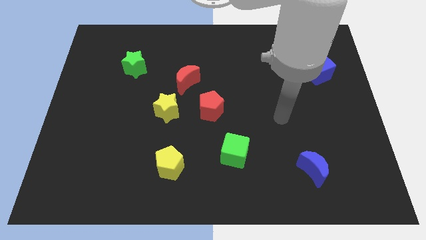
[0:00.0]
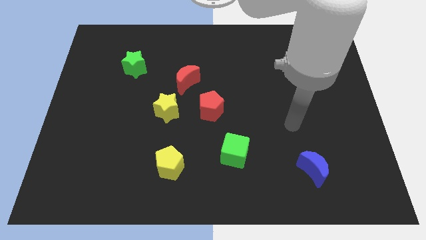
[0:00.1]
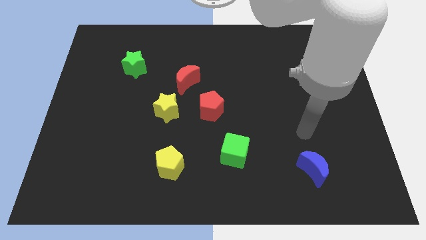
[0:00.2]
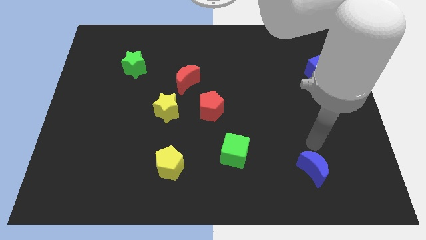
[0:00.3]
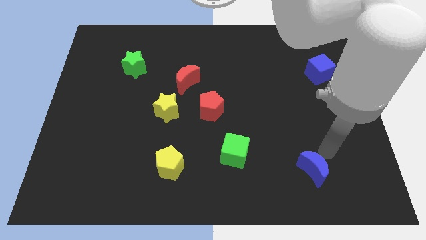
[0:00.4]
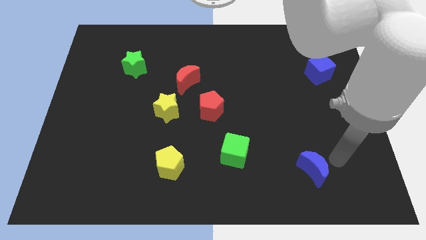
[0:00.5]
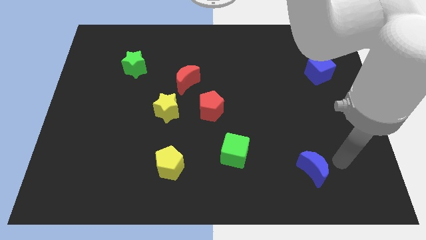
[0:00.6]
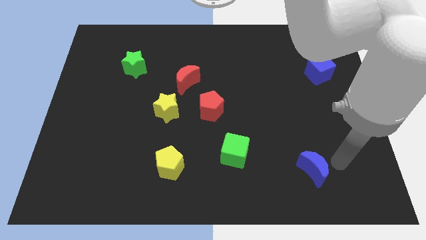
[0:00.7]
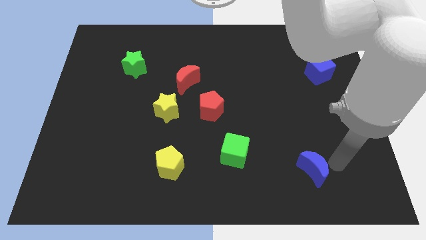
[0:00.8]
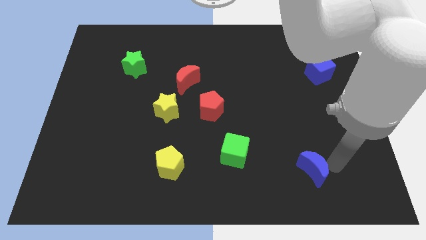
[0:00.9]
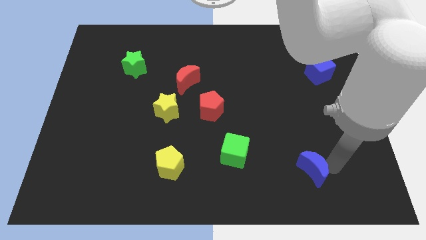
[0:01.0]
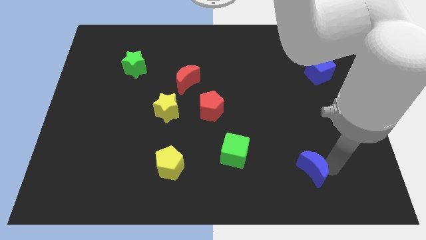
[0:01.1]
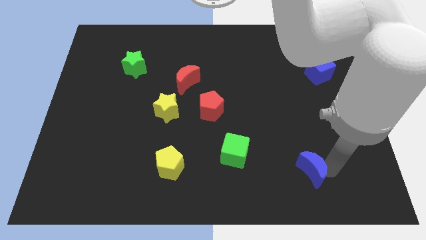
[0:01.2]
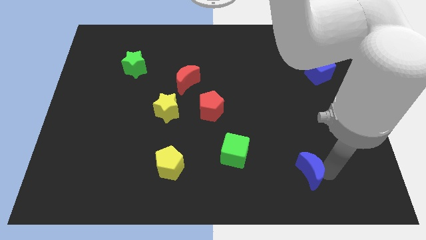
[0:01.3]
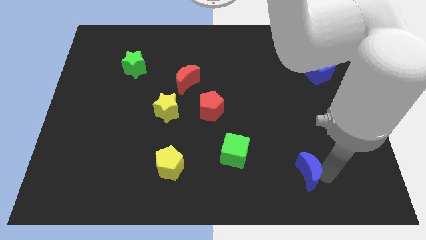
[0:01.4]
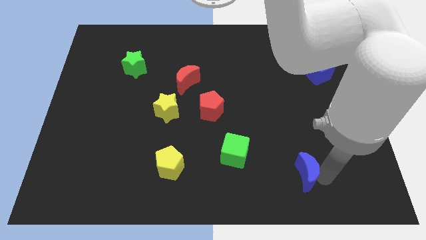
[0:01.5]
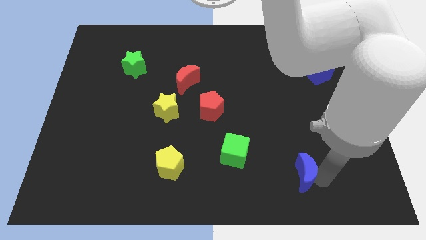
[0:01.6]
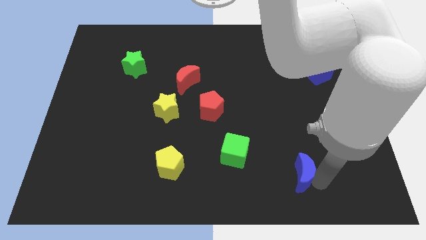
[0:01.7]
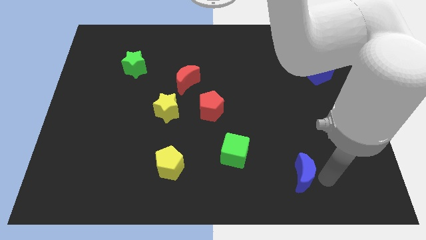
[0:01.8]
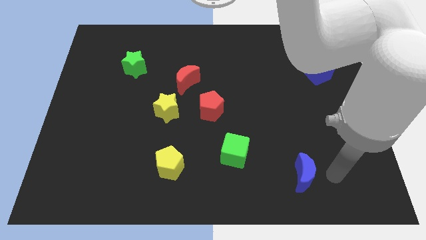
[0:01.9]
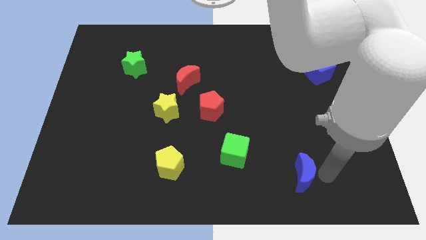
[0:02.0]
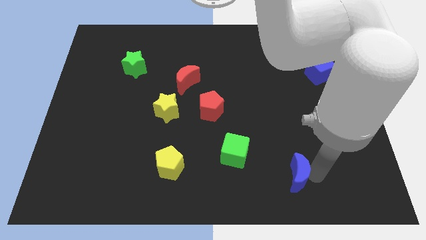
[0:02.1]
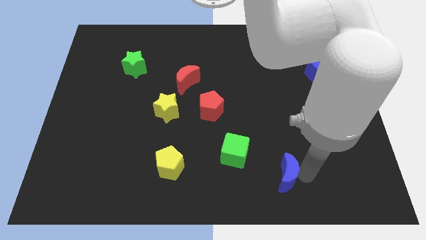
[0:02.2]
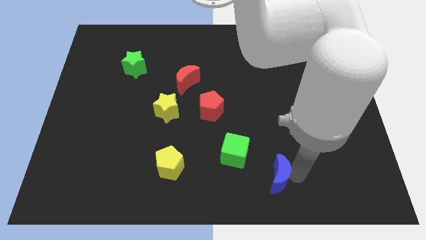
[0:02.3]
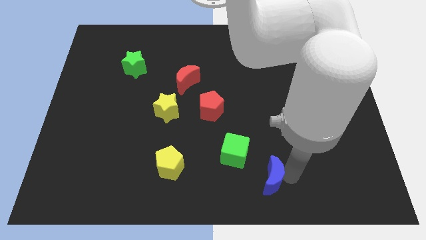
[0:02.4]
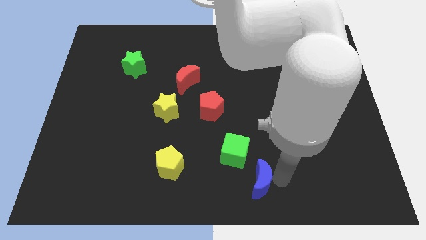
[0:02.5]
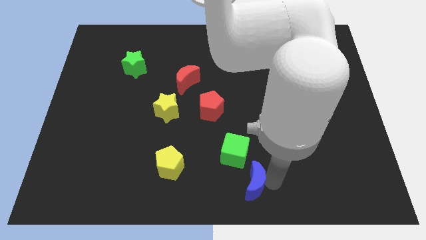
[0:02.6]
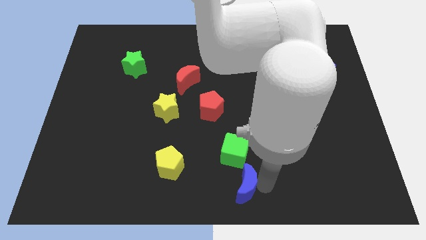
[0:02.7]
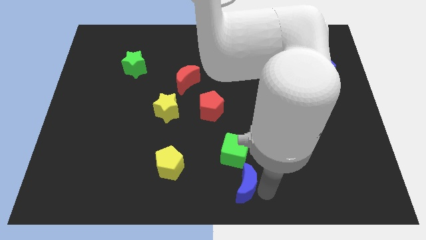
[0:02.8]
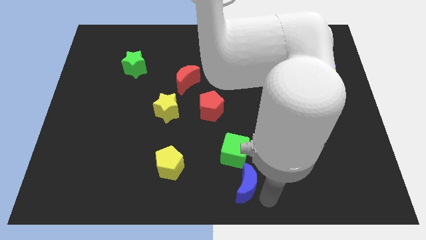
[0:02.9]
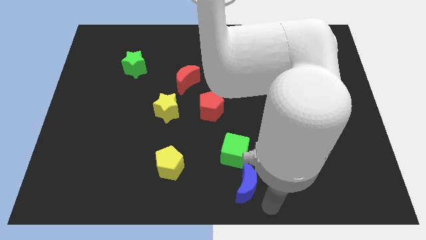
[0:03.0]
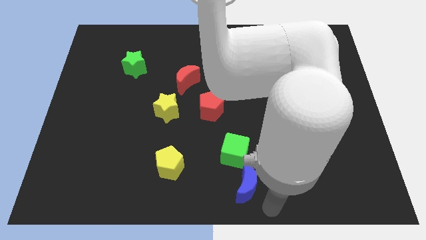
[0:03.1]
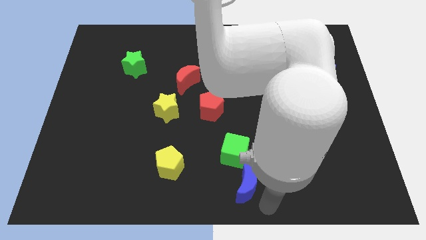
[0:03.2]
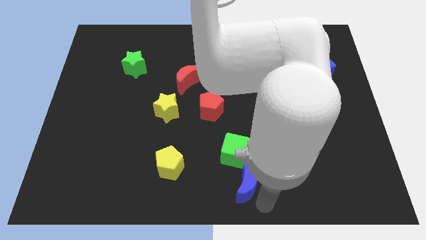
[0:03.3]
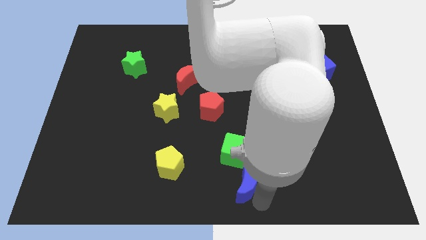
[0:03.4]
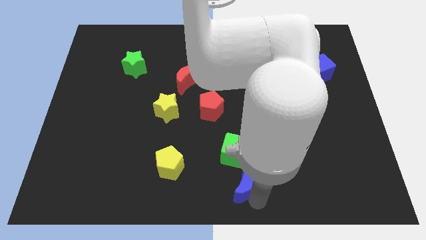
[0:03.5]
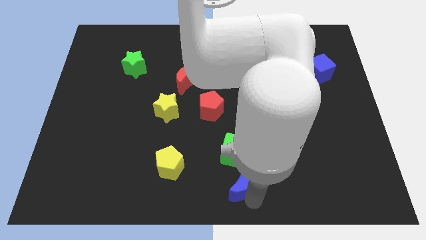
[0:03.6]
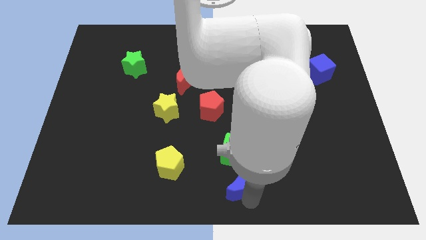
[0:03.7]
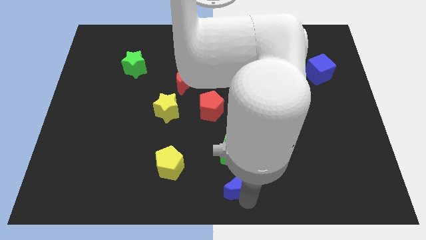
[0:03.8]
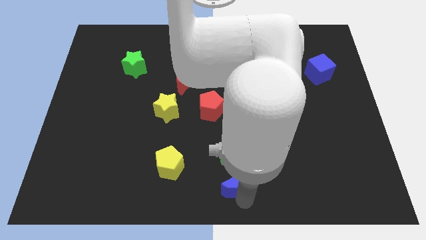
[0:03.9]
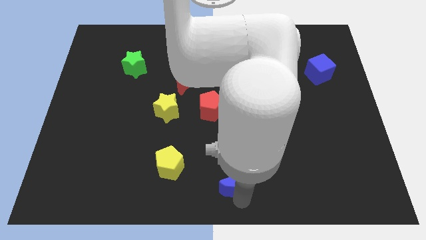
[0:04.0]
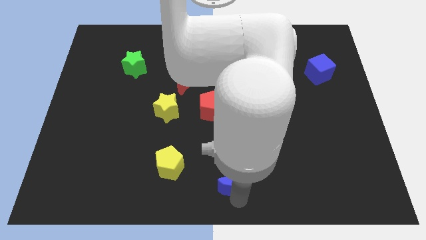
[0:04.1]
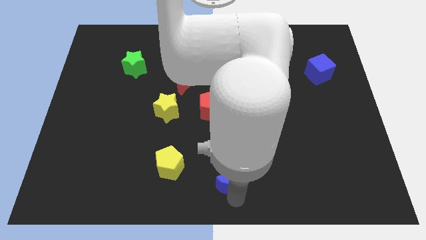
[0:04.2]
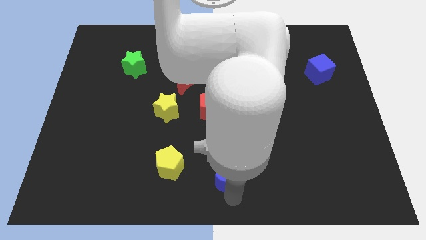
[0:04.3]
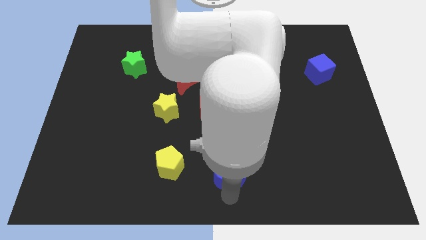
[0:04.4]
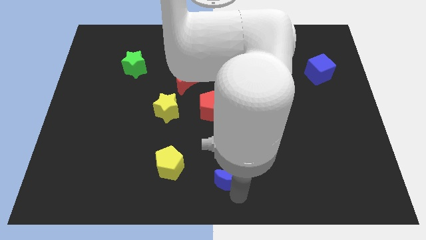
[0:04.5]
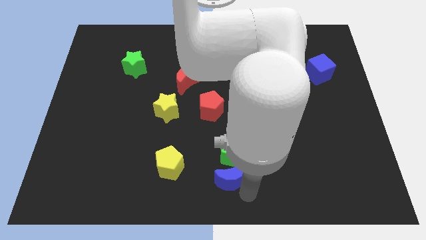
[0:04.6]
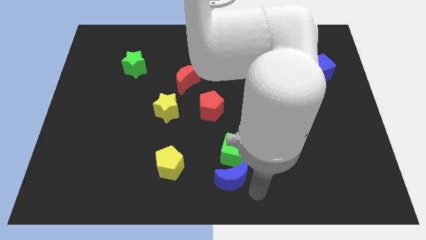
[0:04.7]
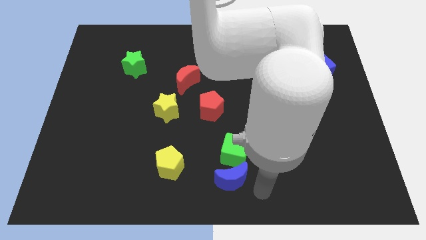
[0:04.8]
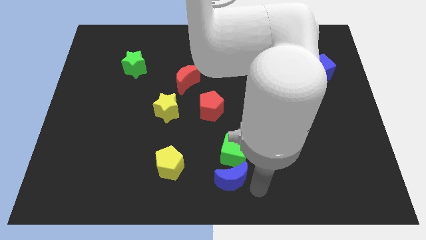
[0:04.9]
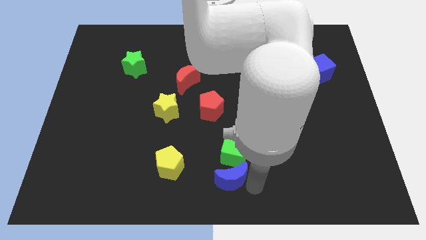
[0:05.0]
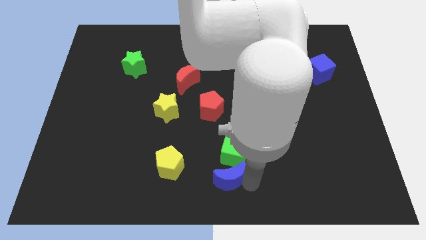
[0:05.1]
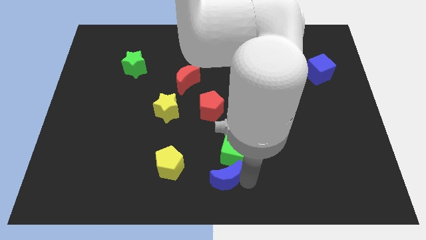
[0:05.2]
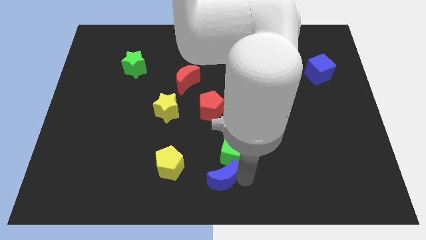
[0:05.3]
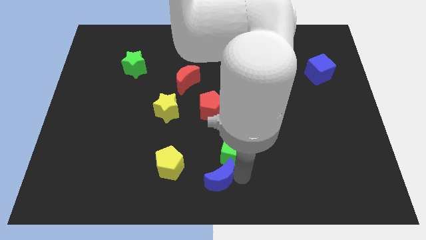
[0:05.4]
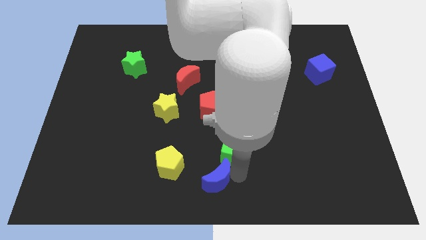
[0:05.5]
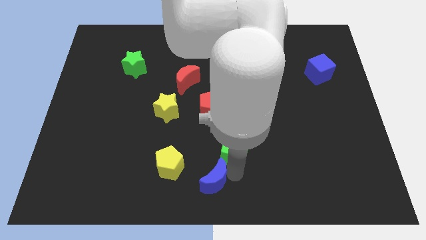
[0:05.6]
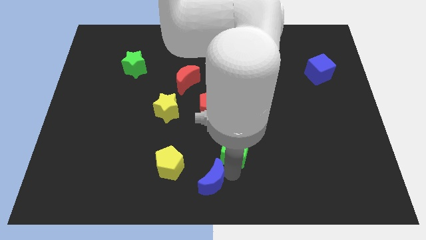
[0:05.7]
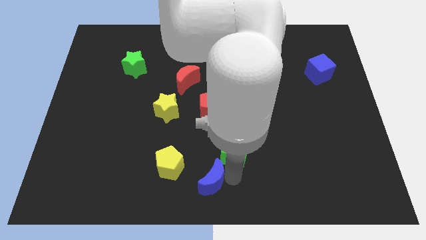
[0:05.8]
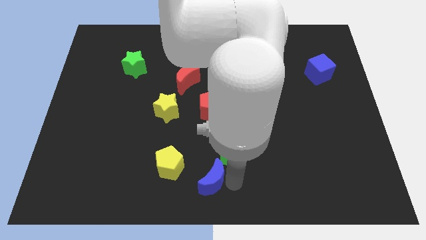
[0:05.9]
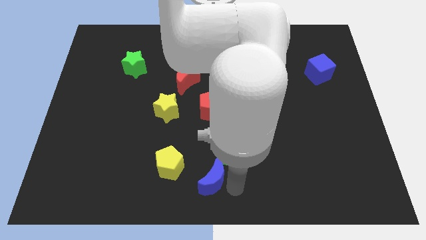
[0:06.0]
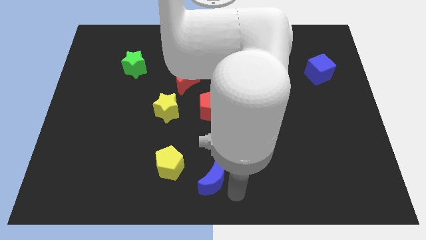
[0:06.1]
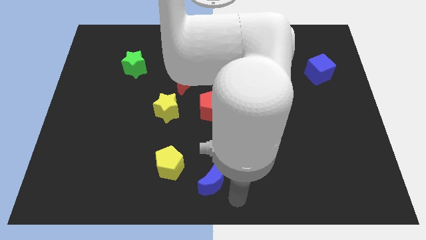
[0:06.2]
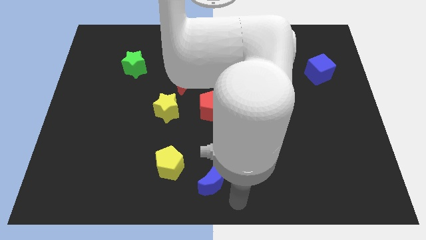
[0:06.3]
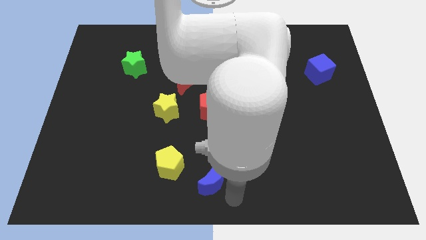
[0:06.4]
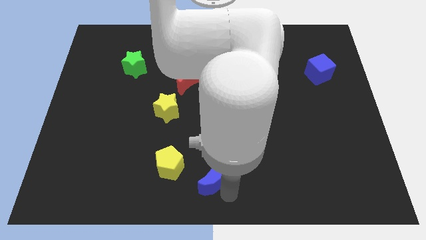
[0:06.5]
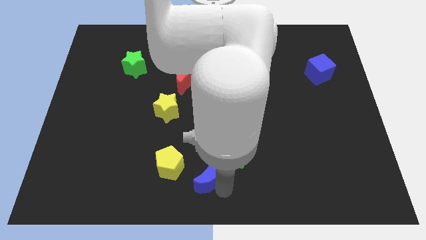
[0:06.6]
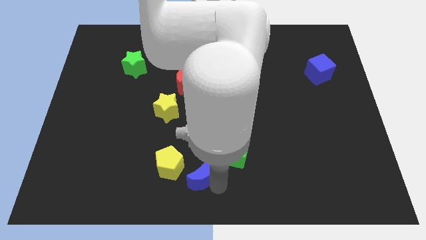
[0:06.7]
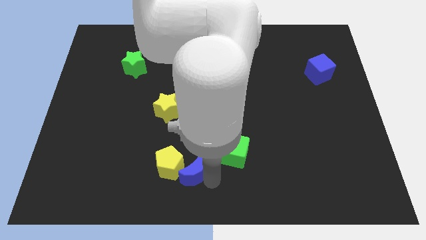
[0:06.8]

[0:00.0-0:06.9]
push the blue moon to the yellow pentagon
